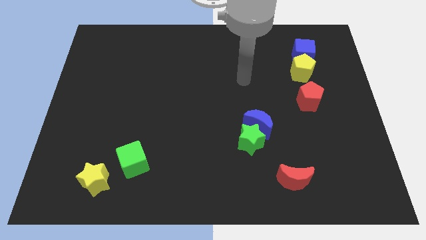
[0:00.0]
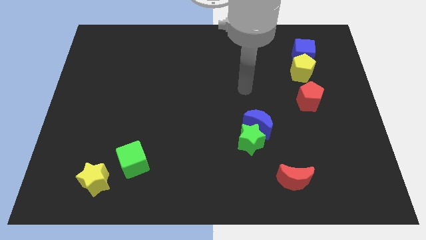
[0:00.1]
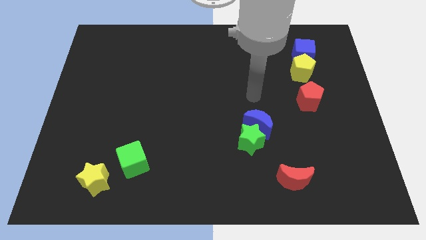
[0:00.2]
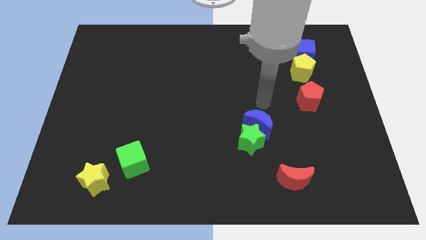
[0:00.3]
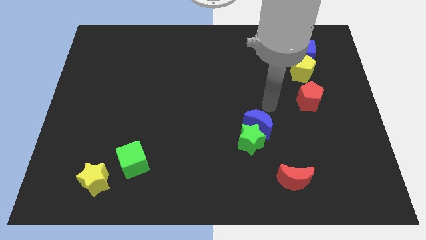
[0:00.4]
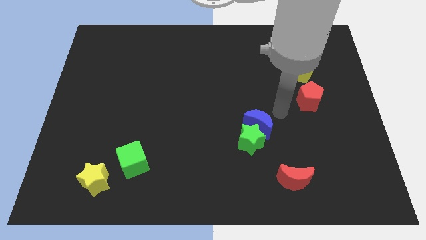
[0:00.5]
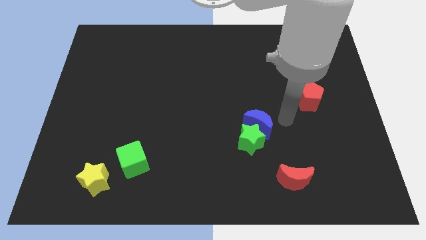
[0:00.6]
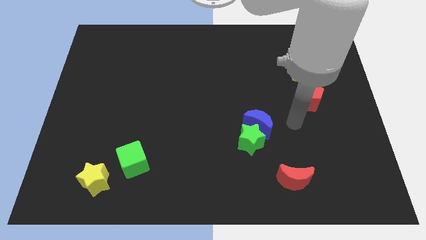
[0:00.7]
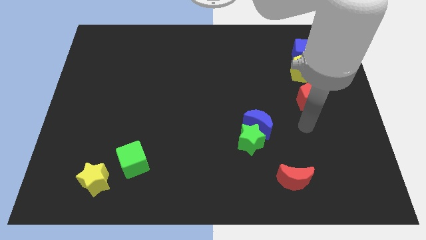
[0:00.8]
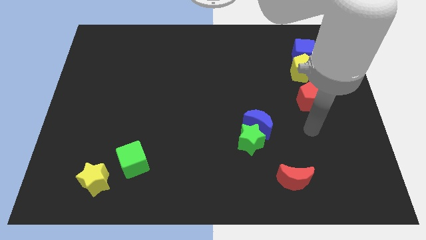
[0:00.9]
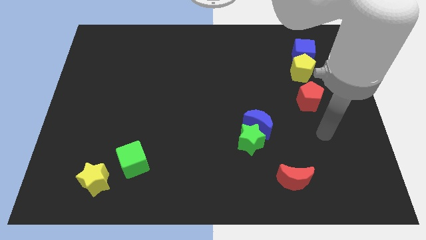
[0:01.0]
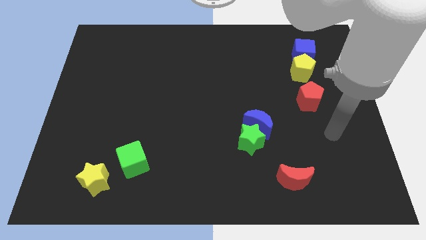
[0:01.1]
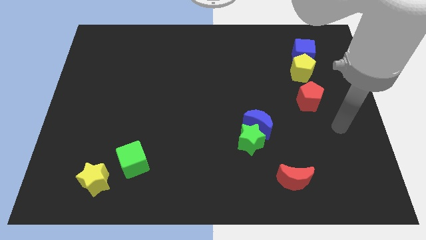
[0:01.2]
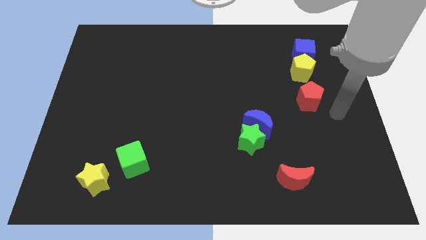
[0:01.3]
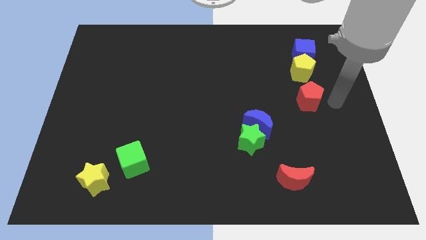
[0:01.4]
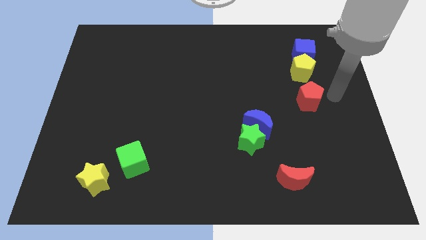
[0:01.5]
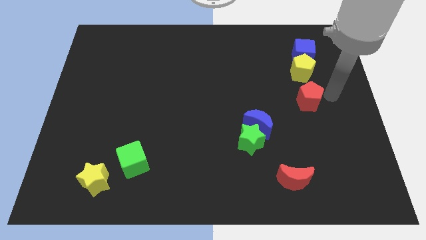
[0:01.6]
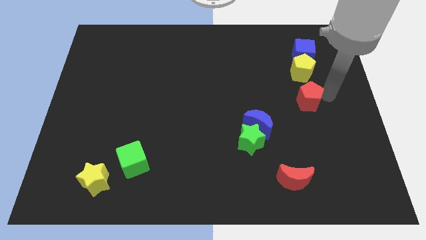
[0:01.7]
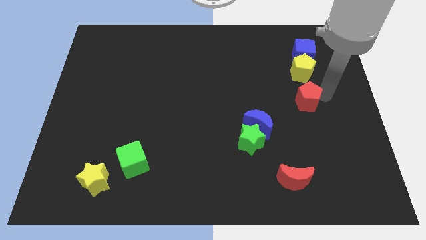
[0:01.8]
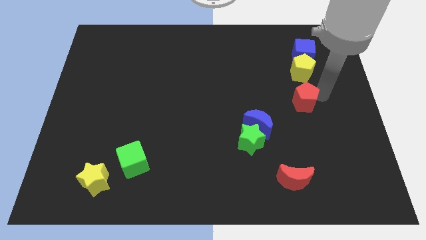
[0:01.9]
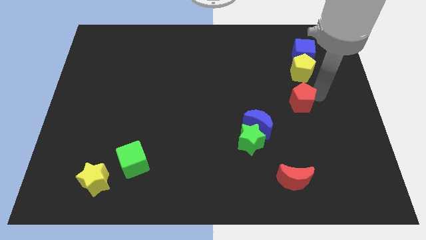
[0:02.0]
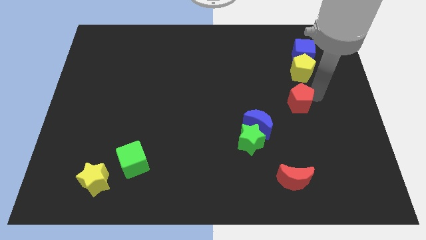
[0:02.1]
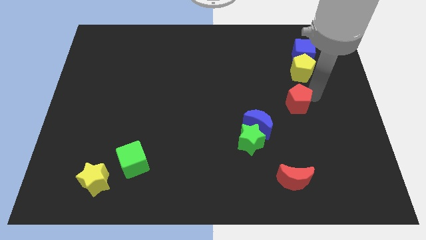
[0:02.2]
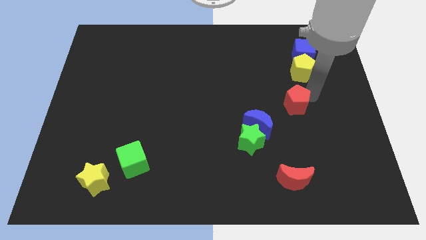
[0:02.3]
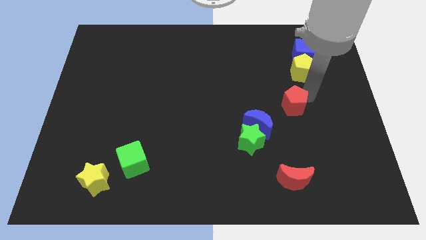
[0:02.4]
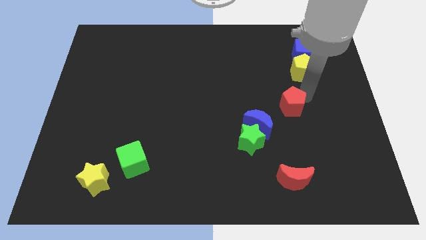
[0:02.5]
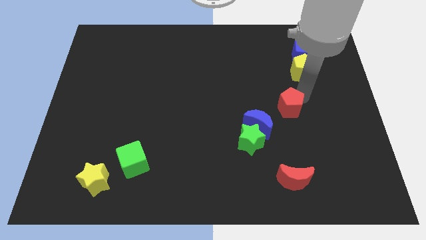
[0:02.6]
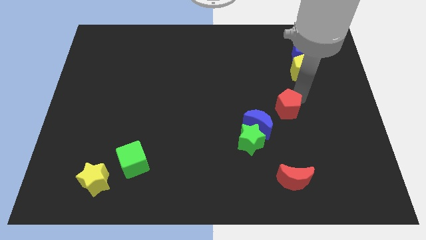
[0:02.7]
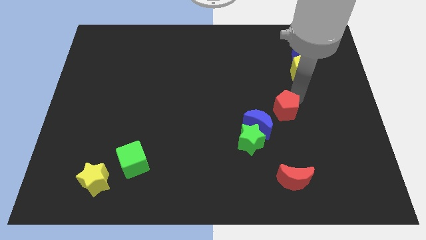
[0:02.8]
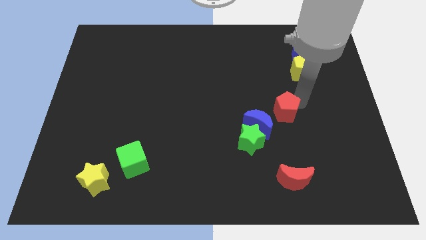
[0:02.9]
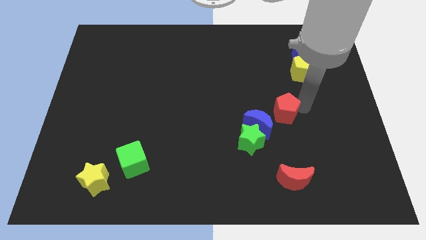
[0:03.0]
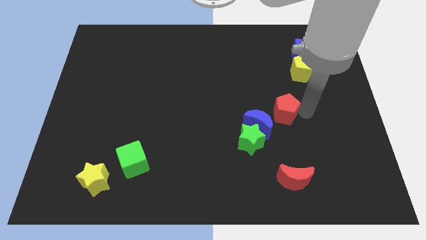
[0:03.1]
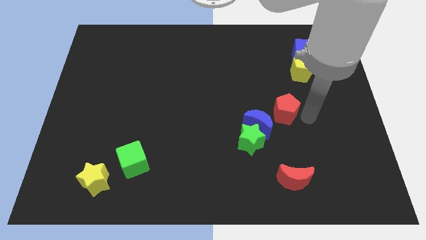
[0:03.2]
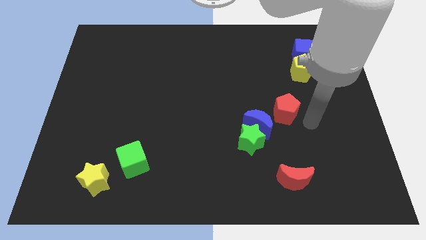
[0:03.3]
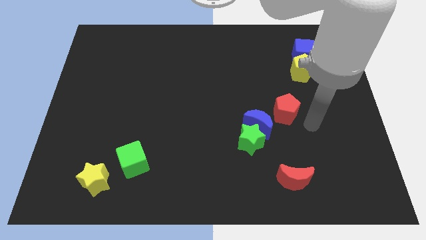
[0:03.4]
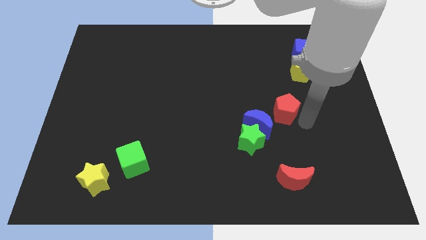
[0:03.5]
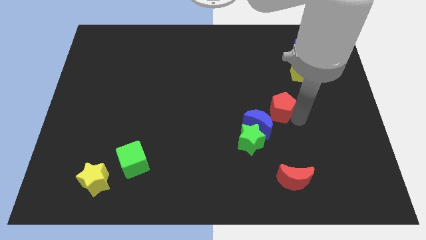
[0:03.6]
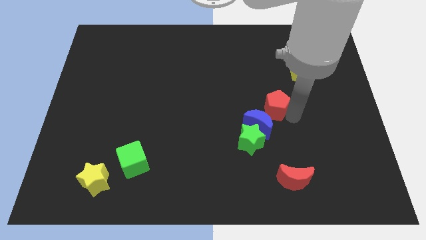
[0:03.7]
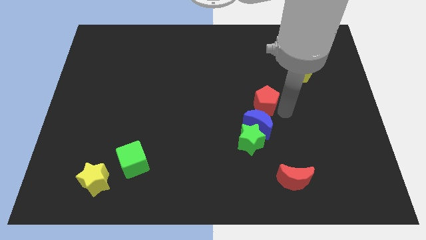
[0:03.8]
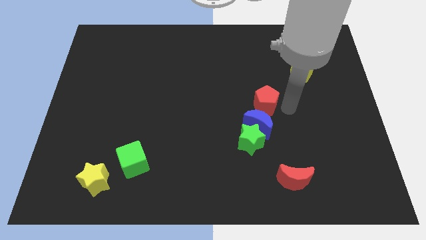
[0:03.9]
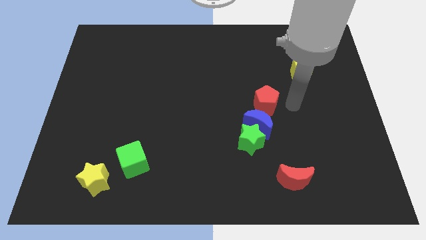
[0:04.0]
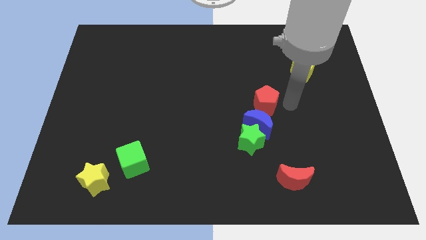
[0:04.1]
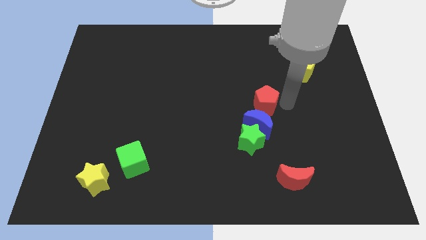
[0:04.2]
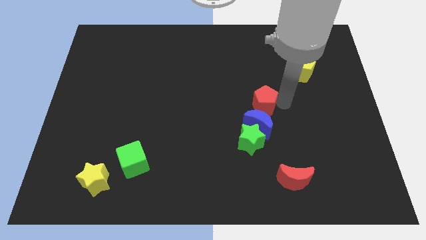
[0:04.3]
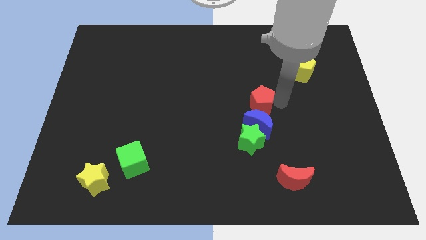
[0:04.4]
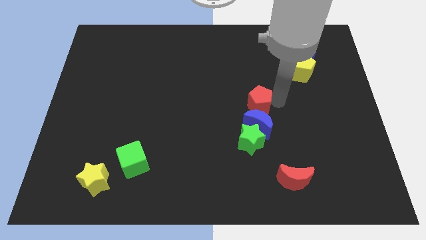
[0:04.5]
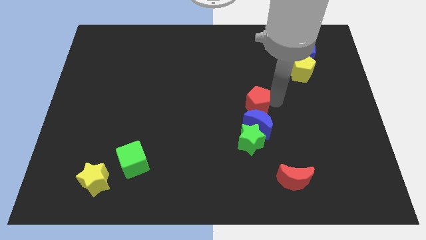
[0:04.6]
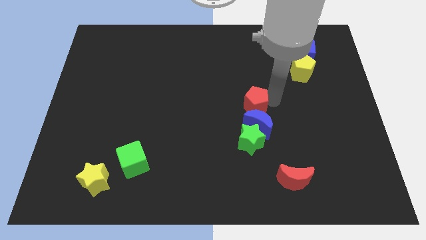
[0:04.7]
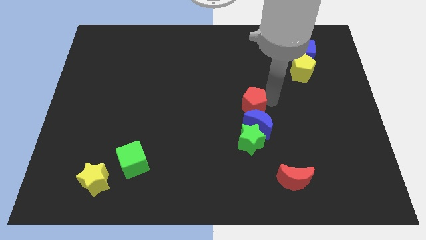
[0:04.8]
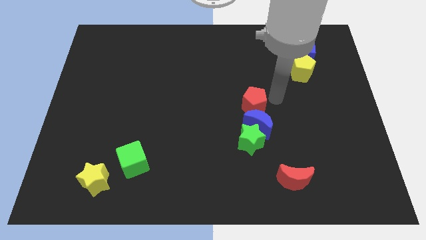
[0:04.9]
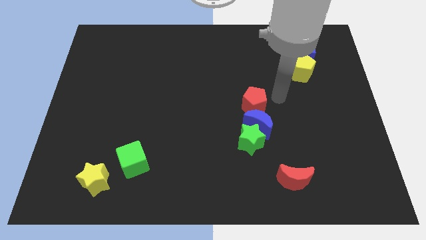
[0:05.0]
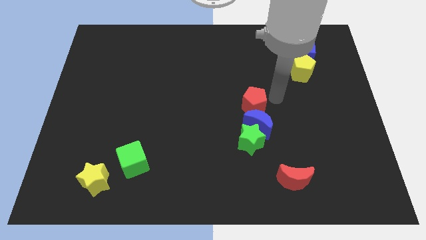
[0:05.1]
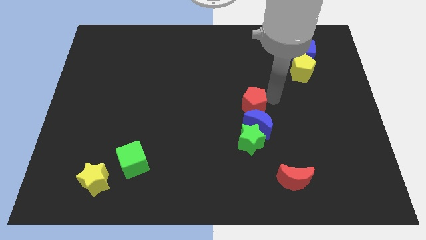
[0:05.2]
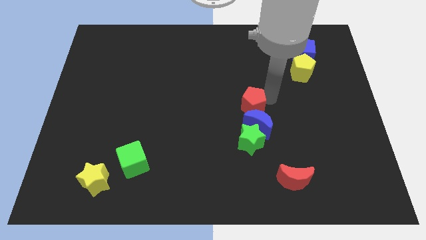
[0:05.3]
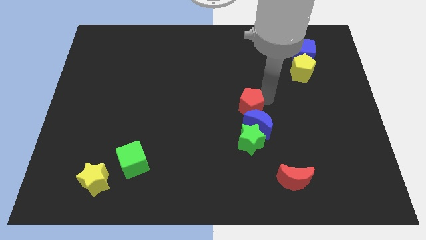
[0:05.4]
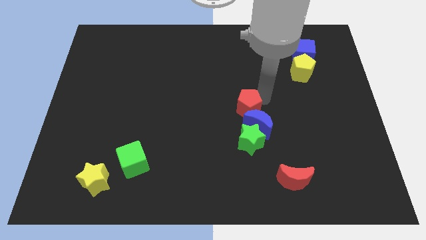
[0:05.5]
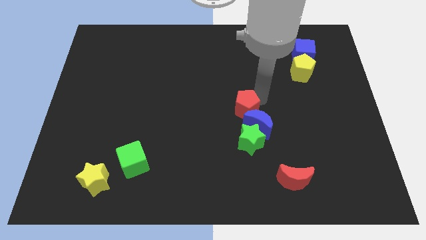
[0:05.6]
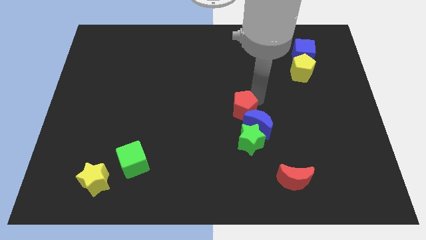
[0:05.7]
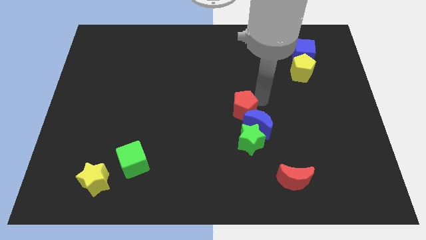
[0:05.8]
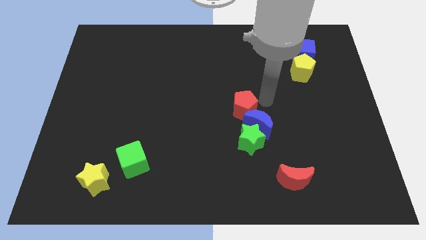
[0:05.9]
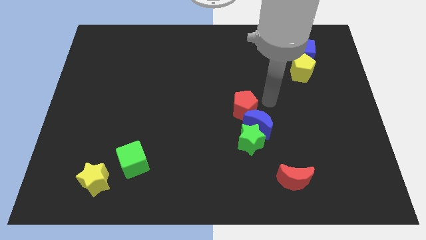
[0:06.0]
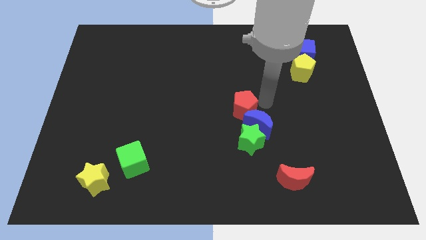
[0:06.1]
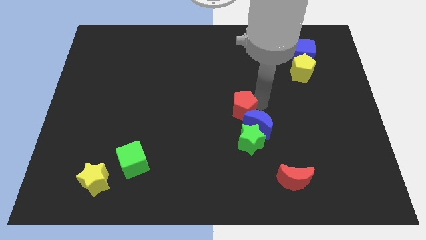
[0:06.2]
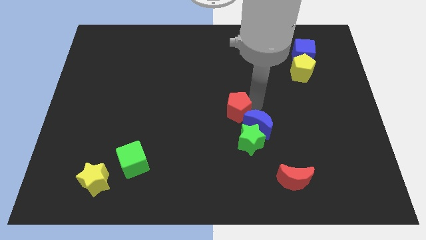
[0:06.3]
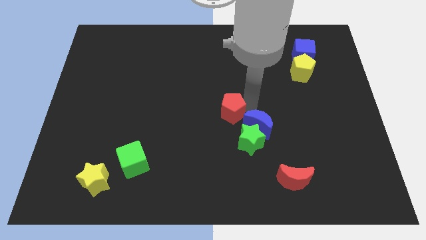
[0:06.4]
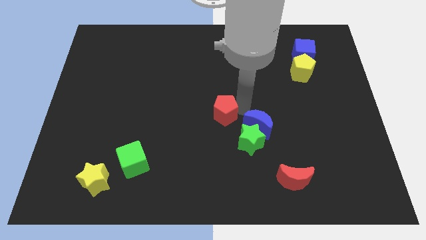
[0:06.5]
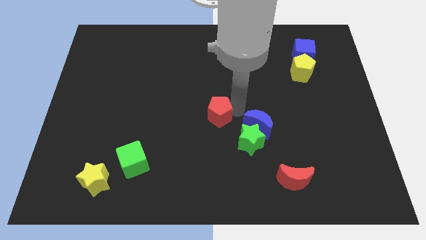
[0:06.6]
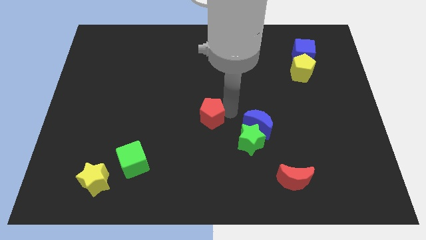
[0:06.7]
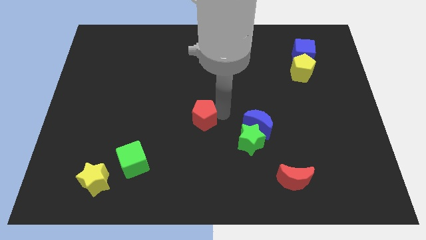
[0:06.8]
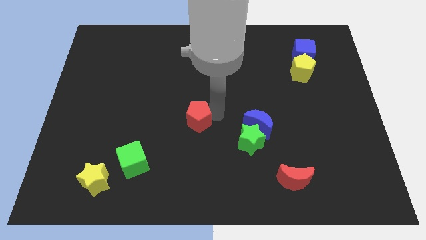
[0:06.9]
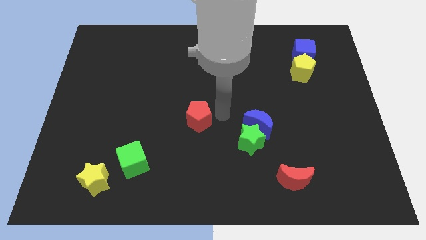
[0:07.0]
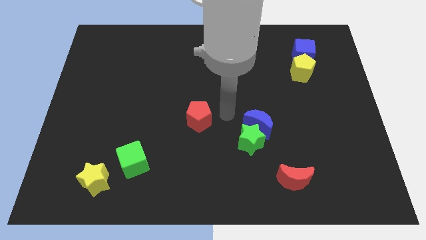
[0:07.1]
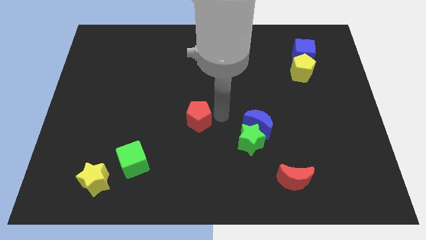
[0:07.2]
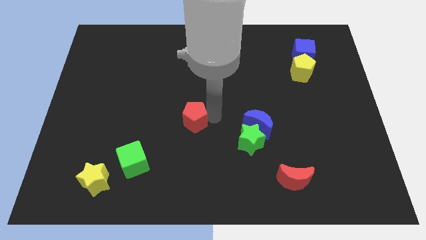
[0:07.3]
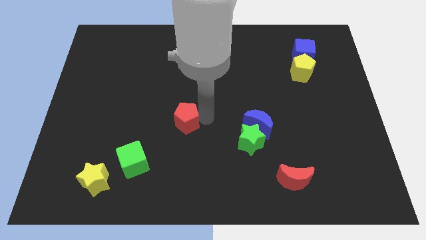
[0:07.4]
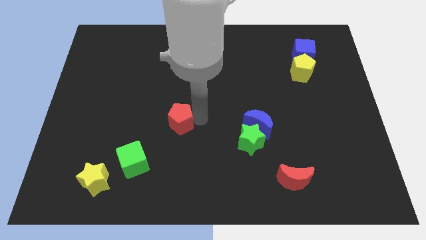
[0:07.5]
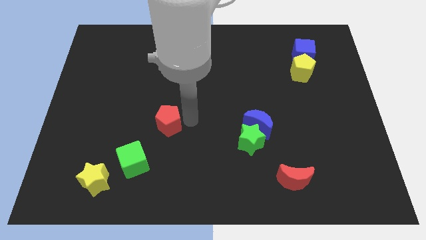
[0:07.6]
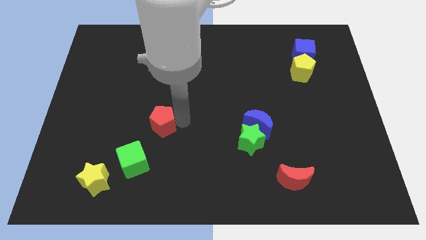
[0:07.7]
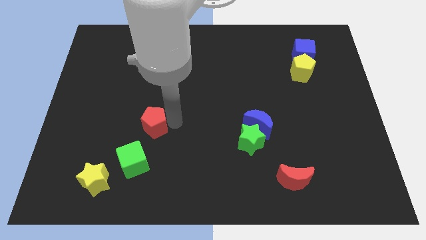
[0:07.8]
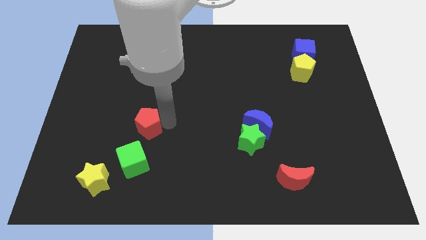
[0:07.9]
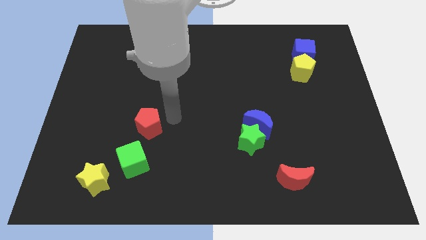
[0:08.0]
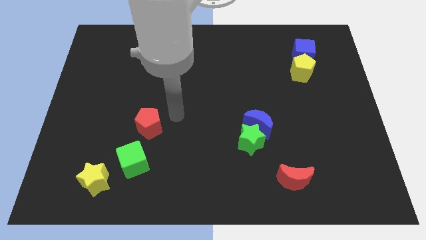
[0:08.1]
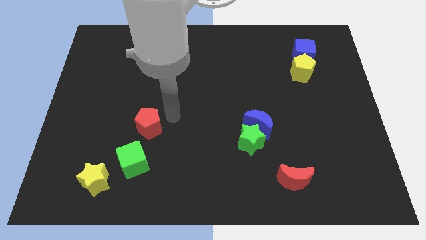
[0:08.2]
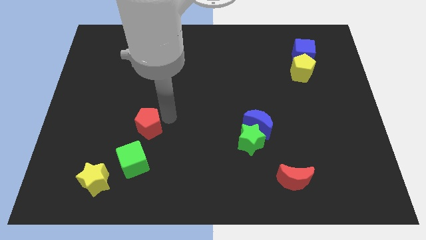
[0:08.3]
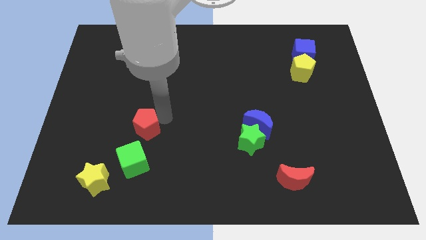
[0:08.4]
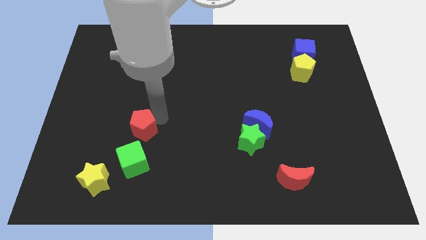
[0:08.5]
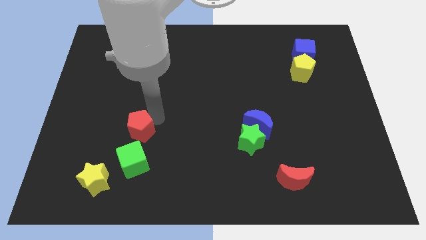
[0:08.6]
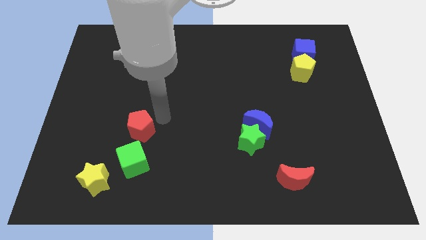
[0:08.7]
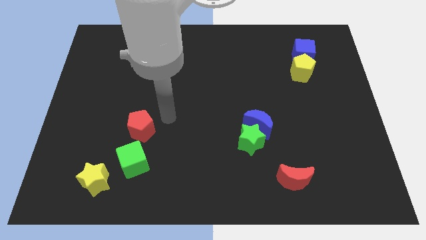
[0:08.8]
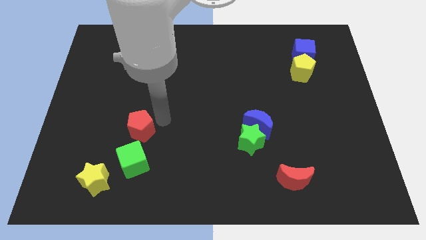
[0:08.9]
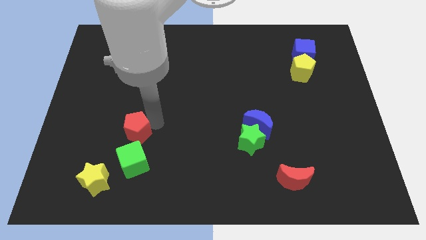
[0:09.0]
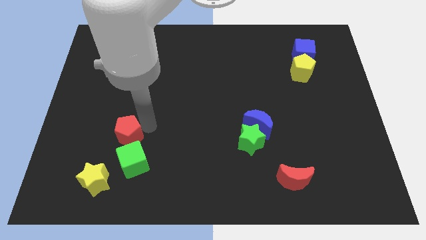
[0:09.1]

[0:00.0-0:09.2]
move the red pentagon to the top left side of the green cube
